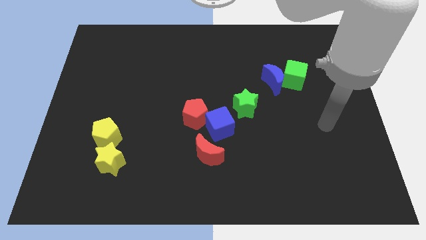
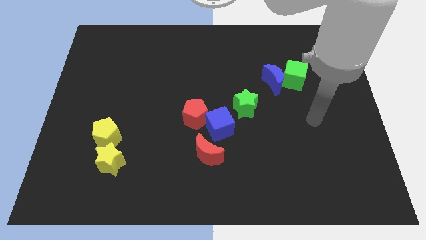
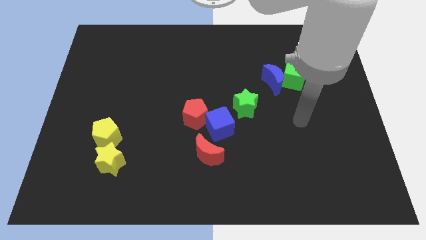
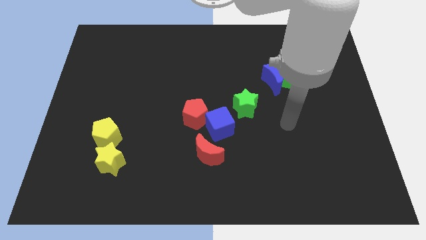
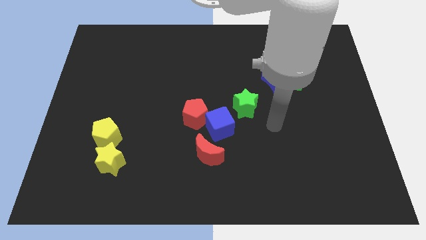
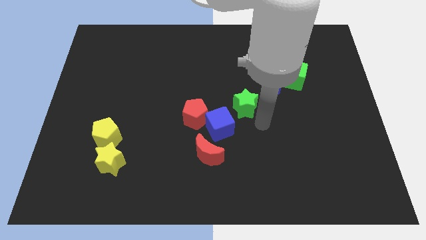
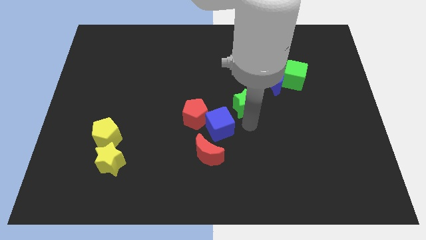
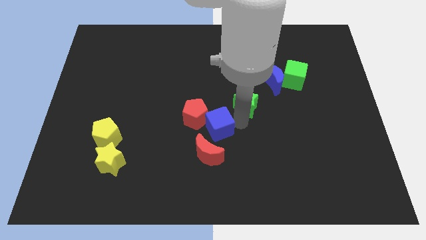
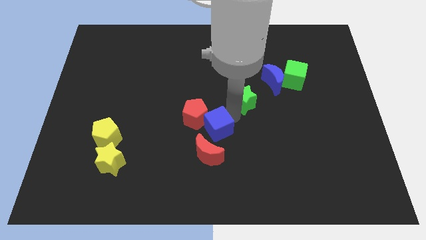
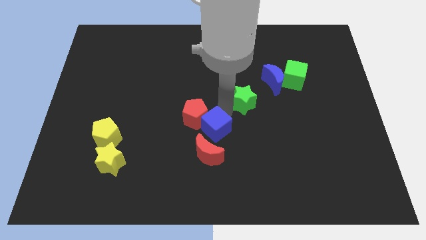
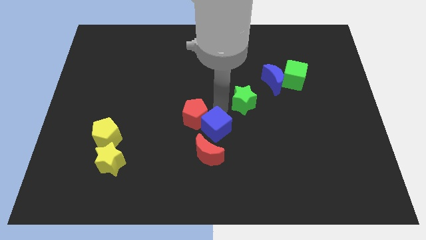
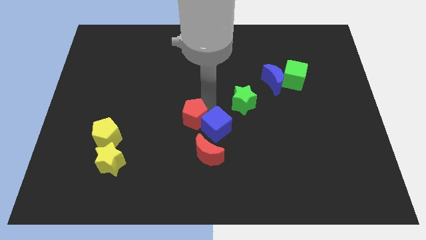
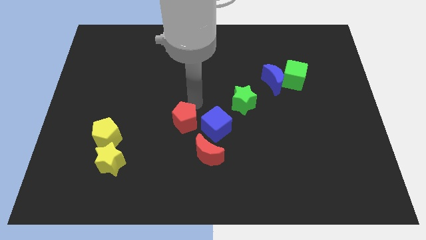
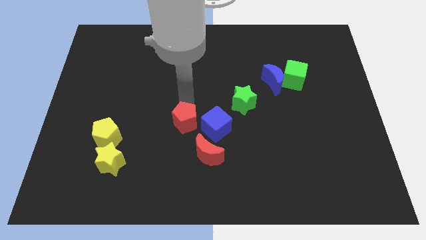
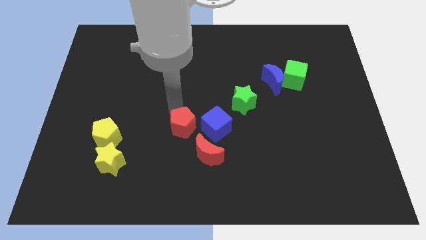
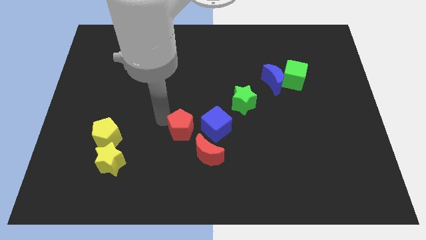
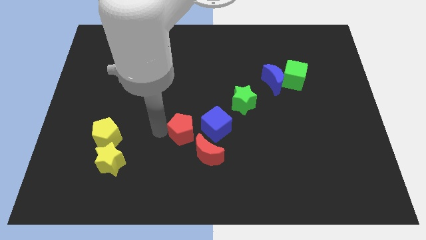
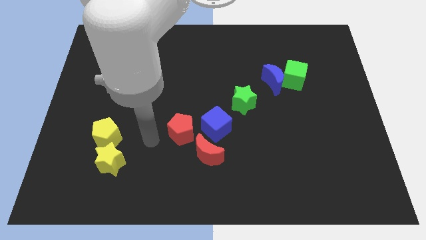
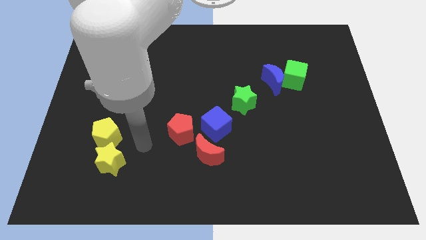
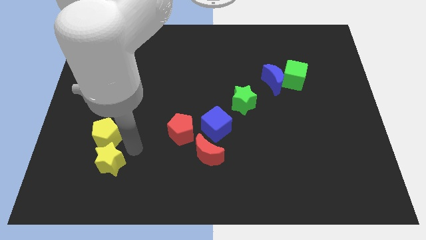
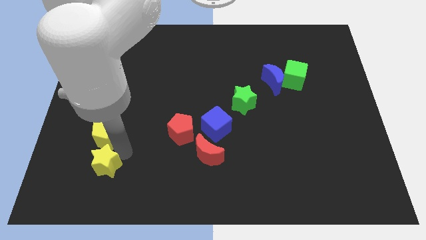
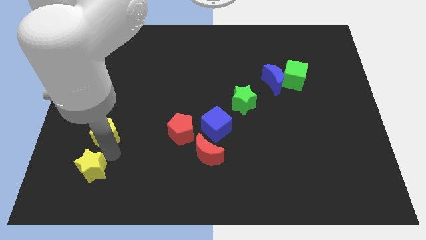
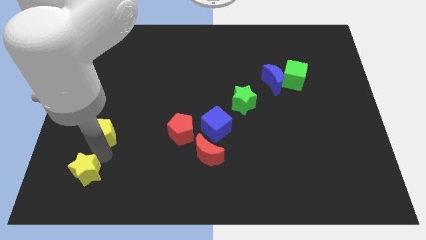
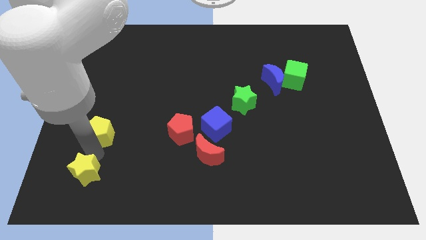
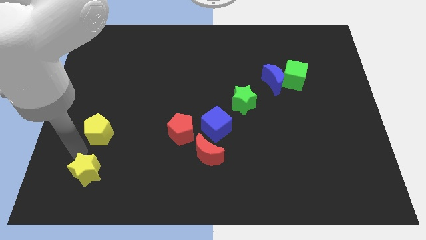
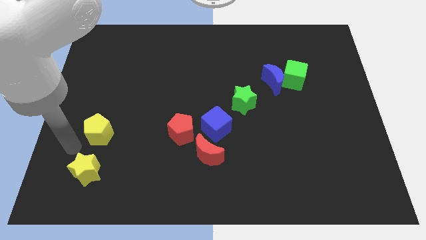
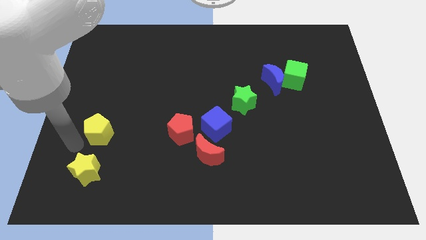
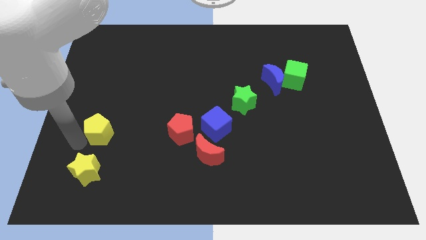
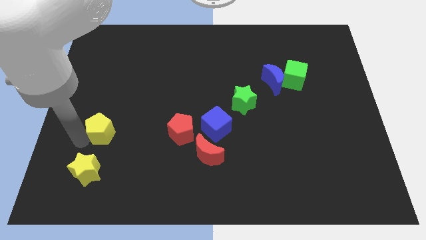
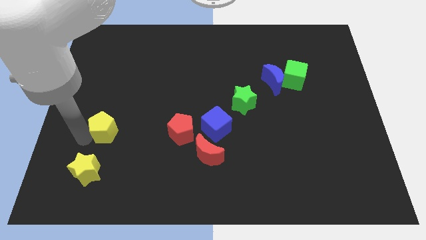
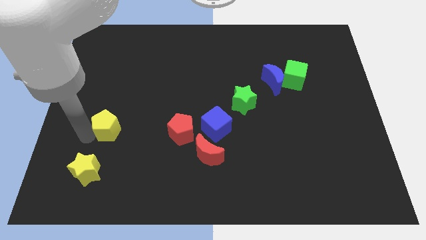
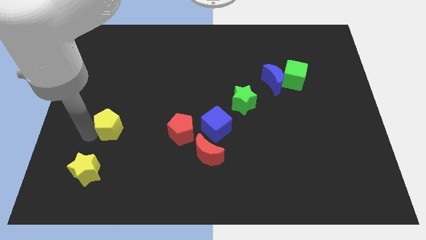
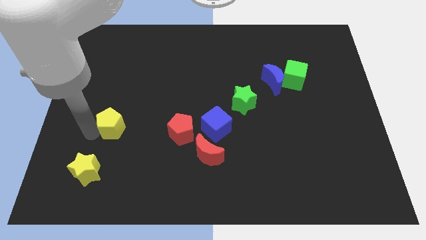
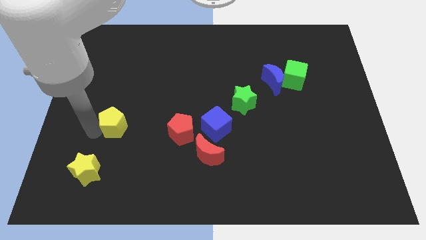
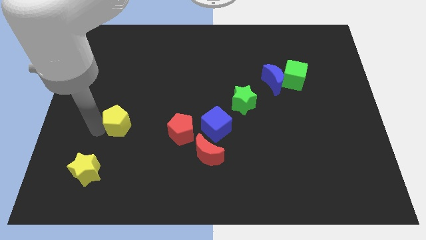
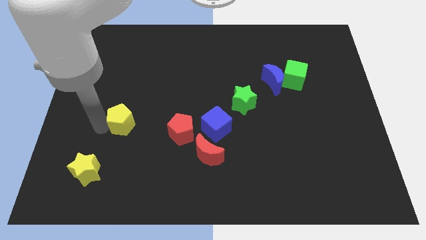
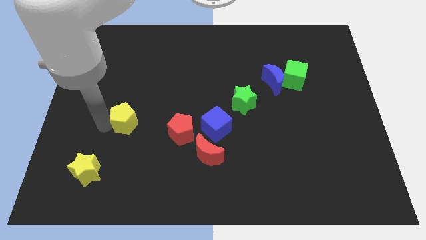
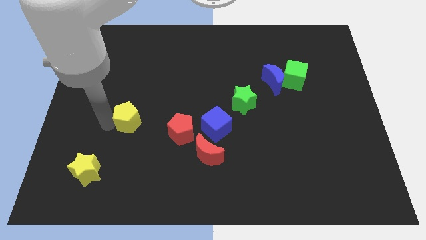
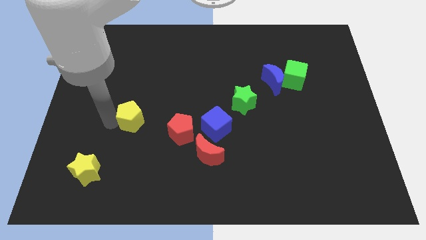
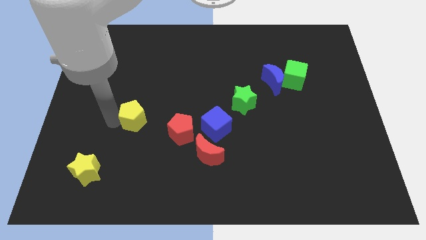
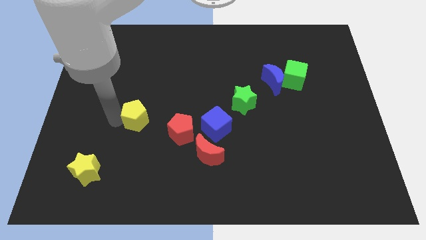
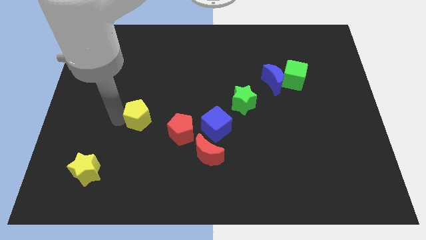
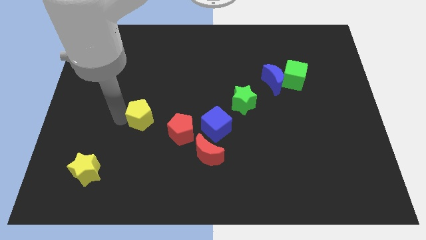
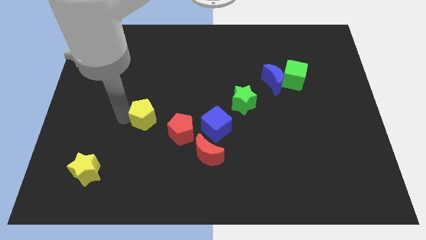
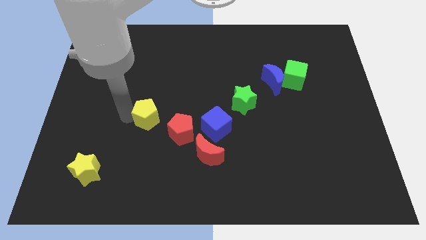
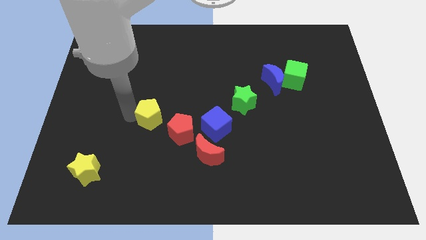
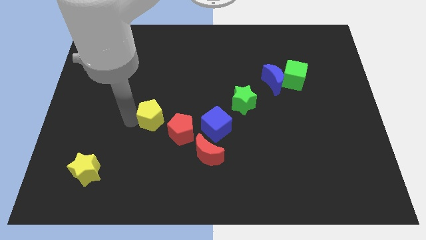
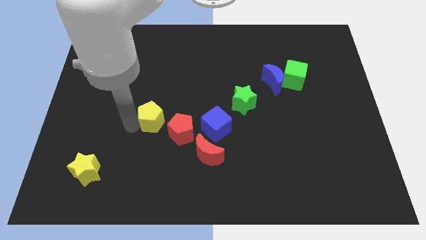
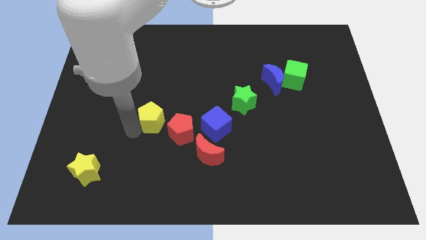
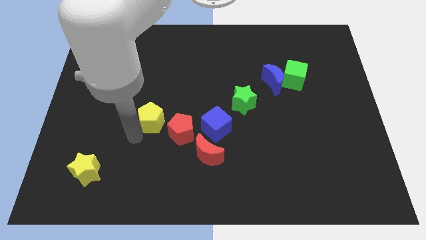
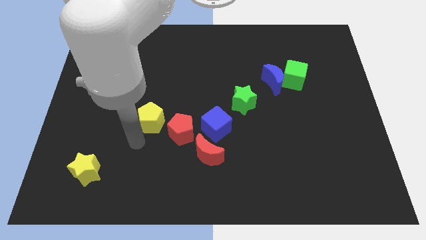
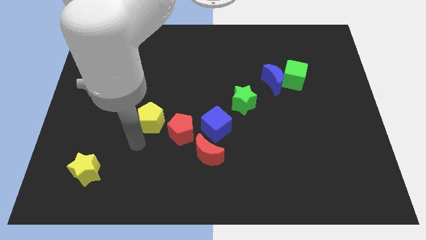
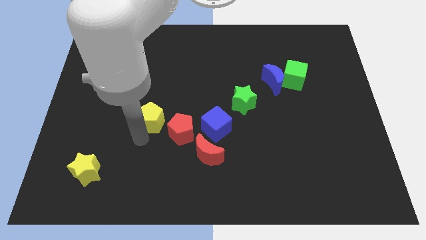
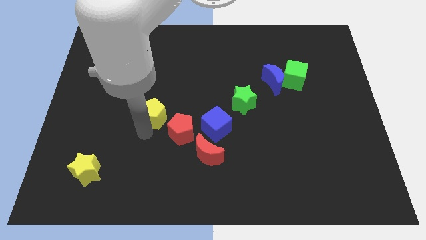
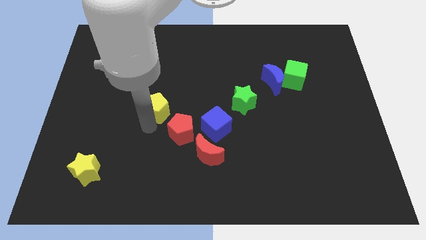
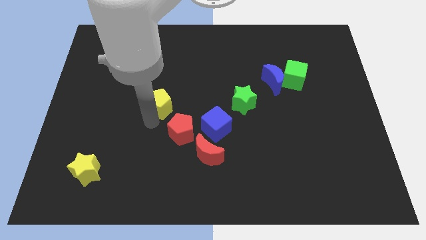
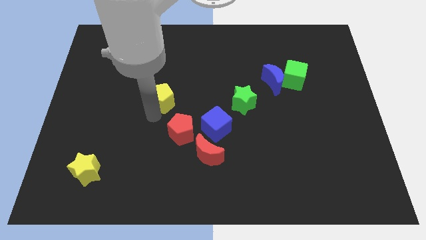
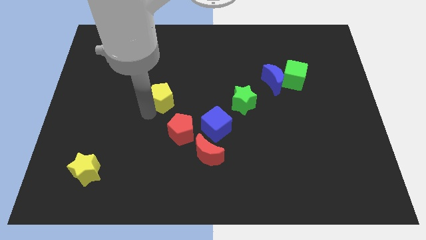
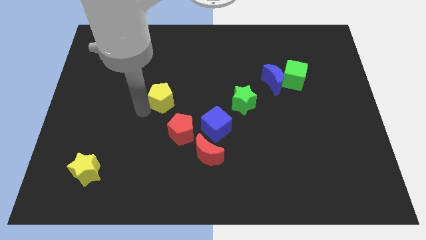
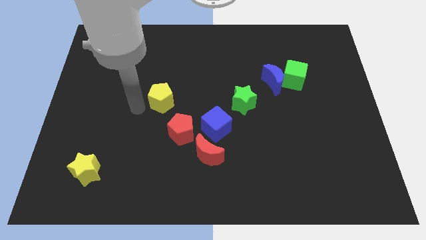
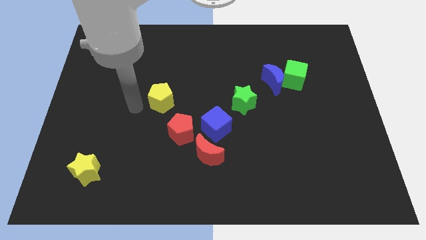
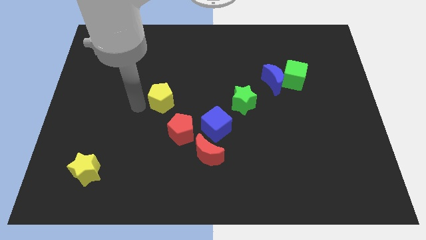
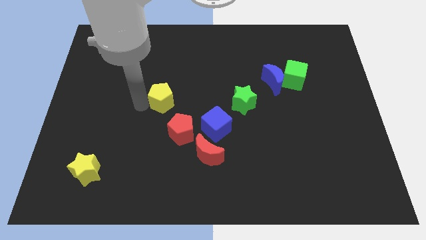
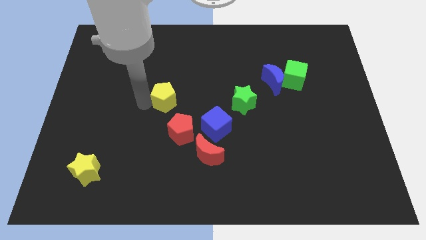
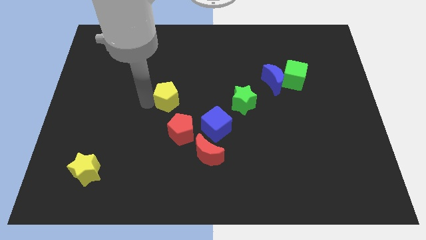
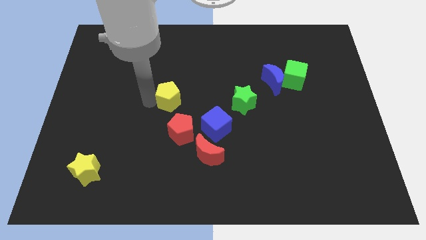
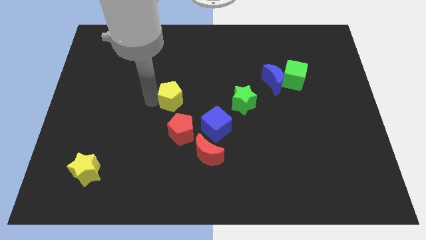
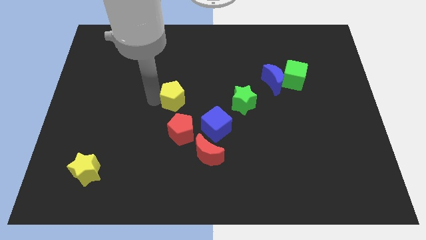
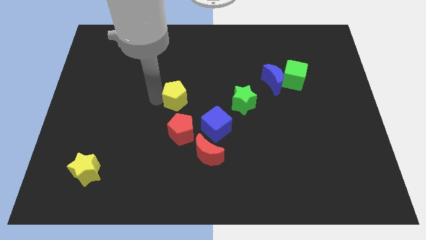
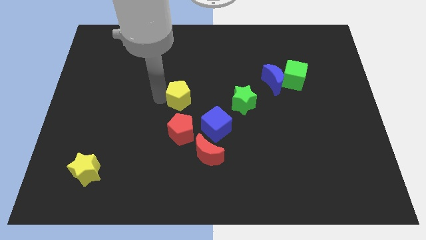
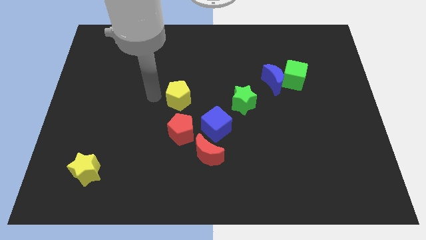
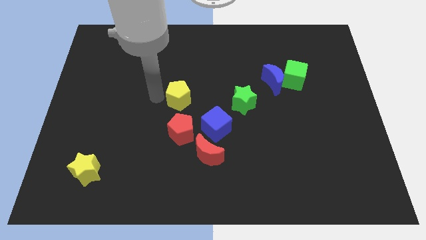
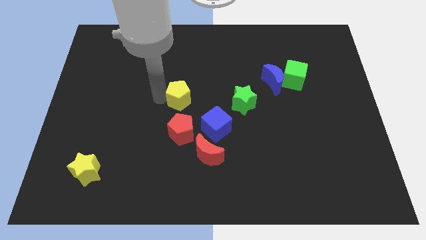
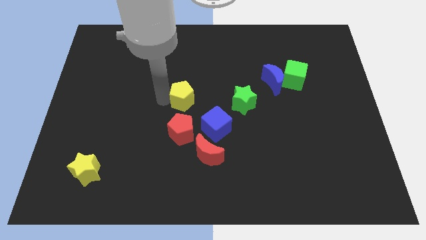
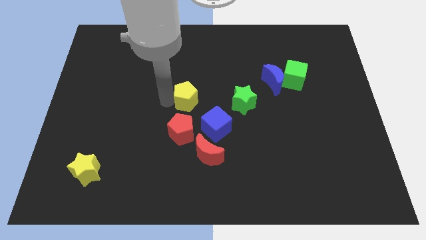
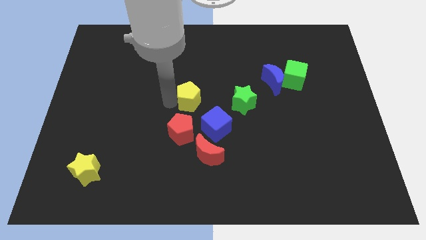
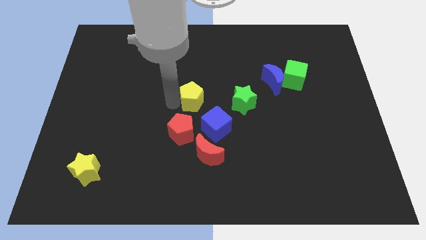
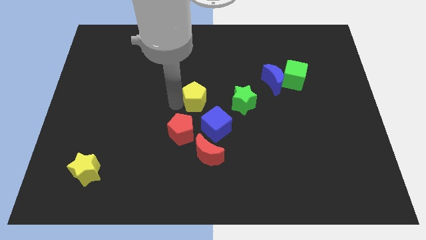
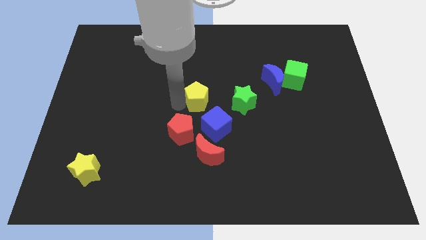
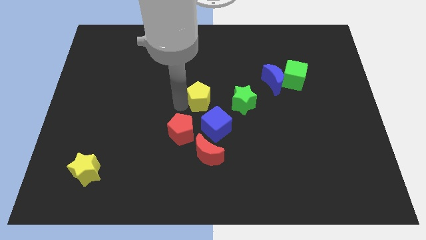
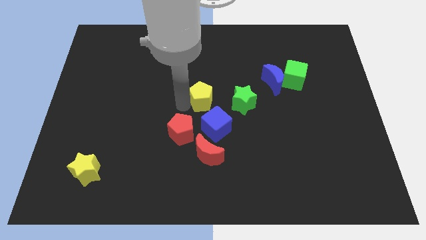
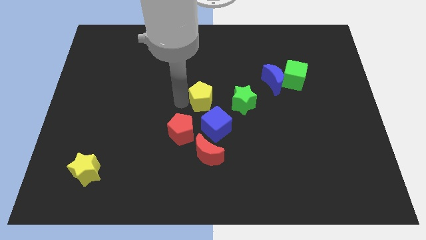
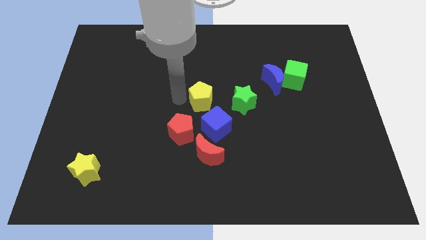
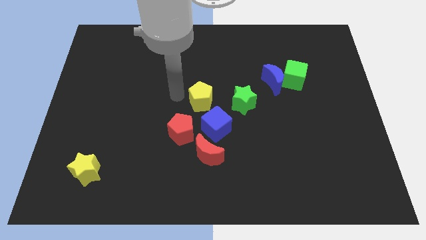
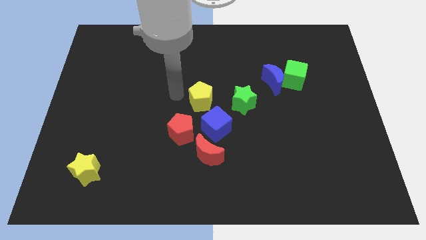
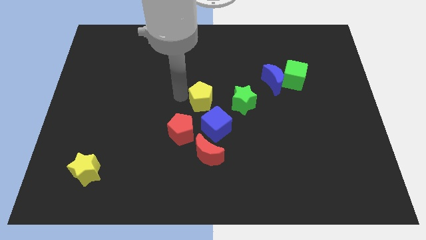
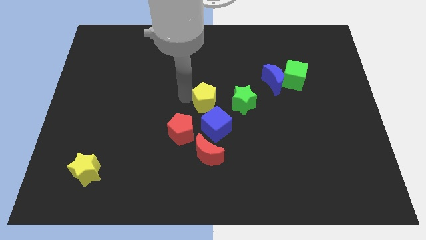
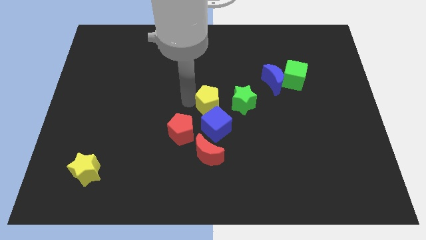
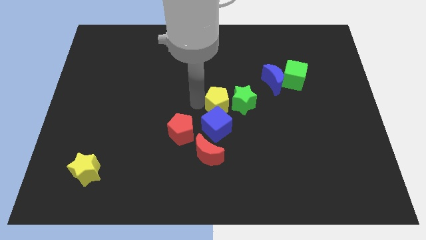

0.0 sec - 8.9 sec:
push the yellow pentagon next to the green star
